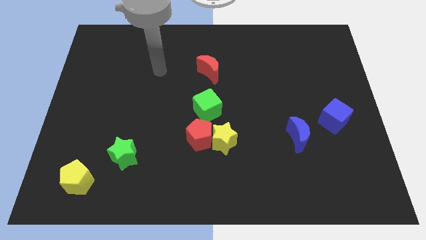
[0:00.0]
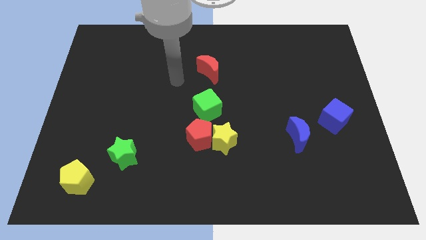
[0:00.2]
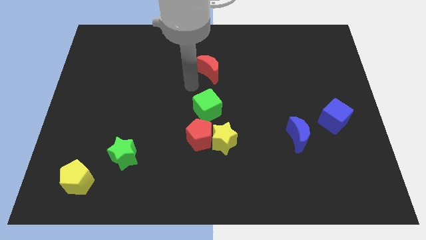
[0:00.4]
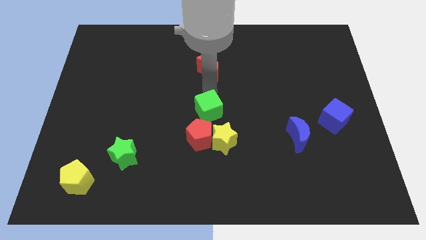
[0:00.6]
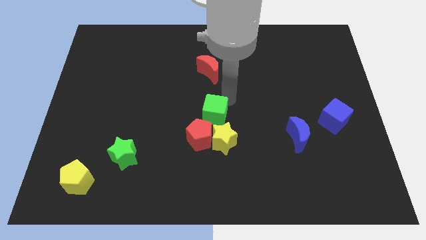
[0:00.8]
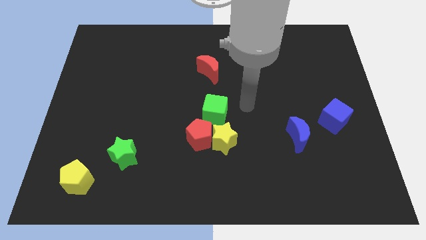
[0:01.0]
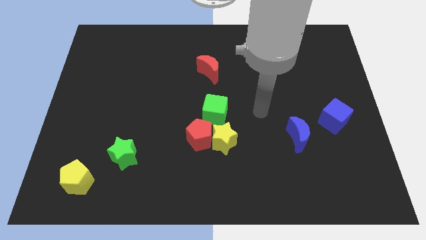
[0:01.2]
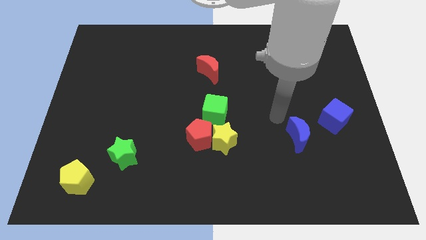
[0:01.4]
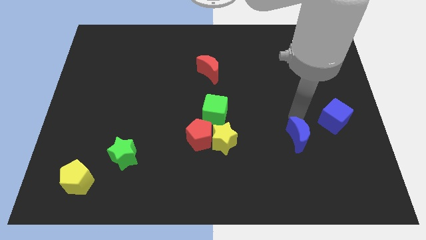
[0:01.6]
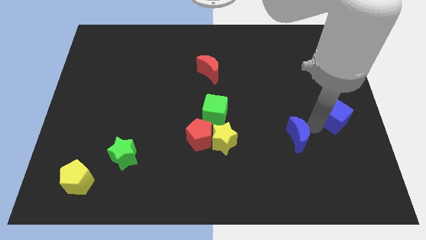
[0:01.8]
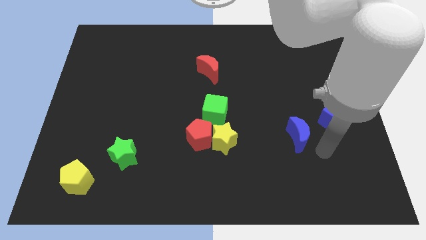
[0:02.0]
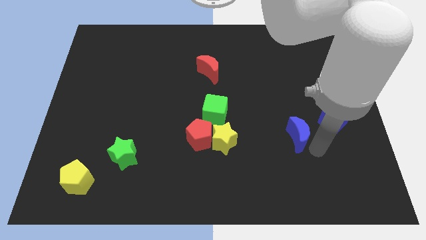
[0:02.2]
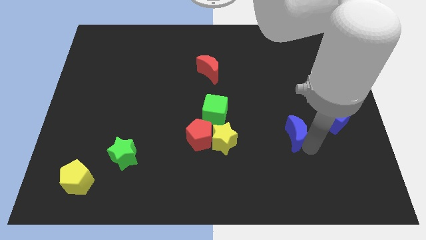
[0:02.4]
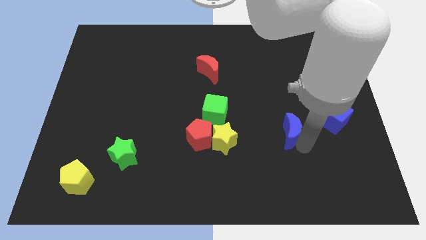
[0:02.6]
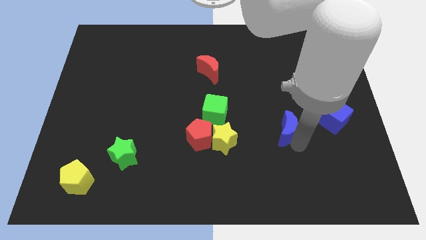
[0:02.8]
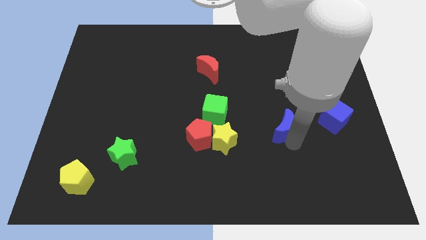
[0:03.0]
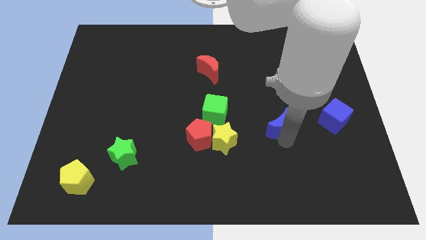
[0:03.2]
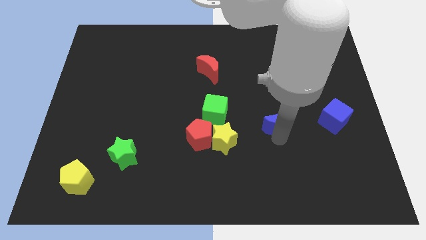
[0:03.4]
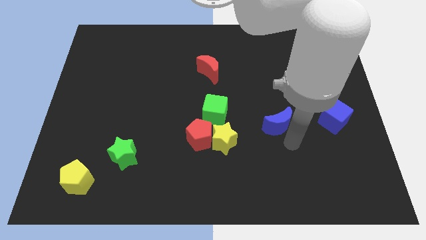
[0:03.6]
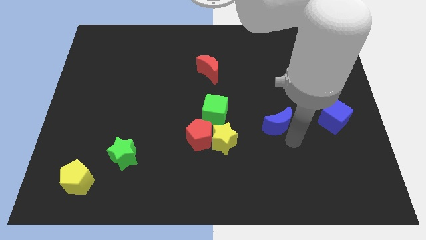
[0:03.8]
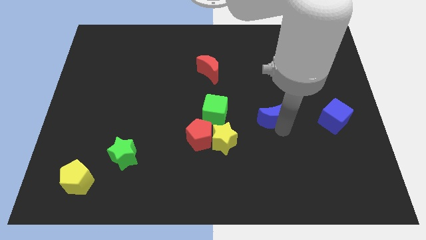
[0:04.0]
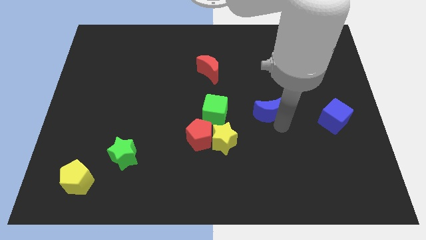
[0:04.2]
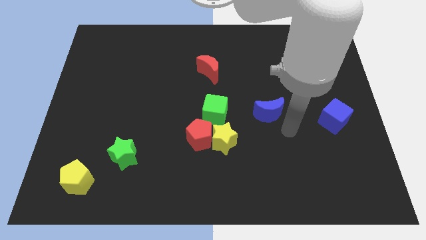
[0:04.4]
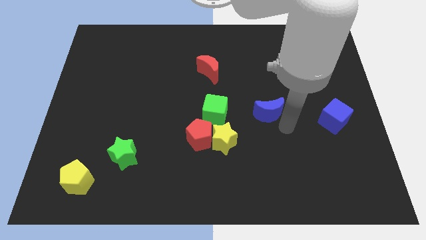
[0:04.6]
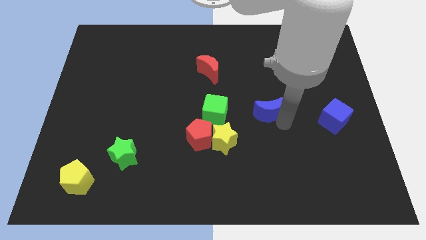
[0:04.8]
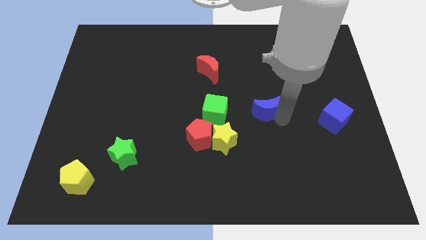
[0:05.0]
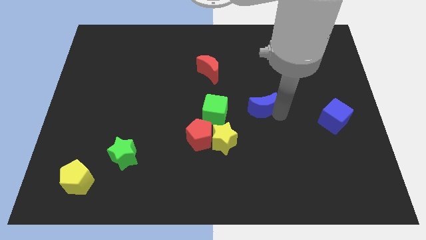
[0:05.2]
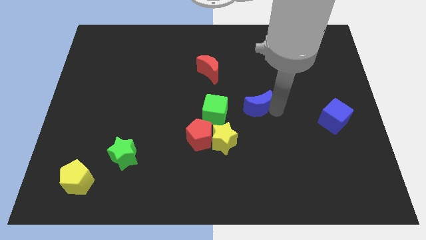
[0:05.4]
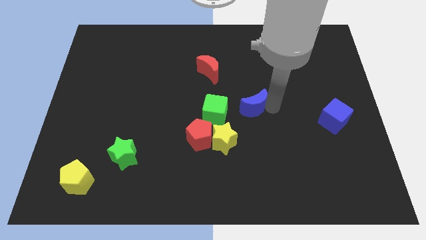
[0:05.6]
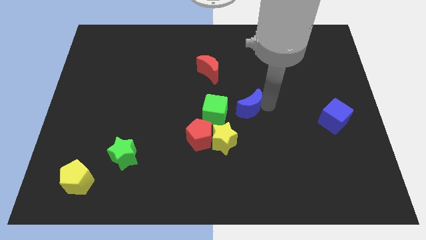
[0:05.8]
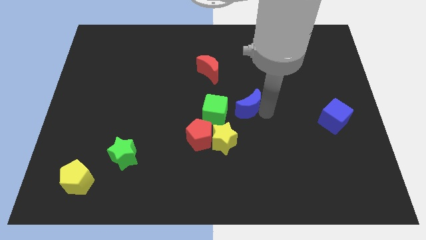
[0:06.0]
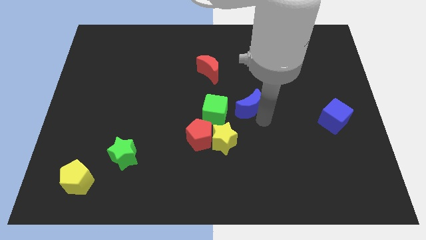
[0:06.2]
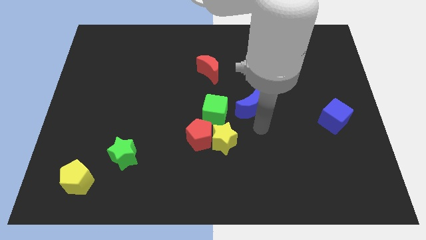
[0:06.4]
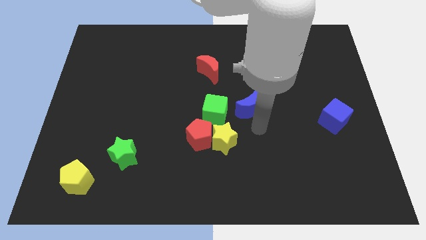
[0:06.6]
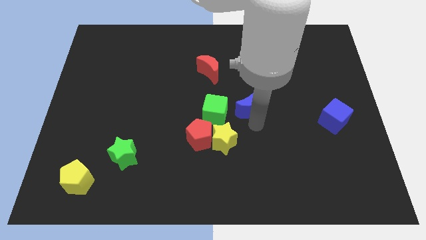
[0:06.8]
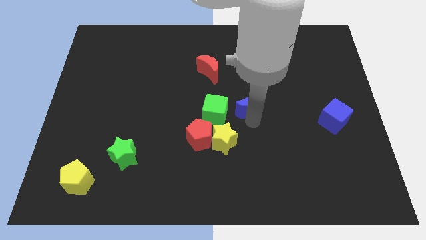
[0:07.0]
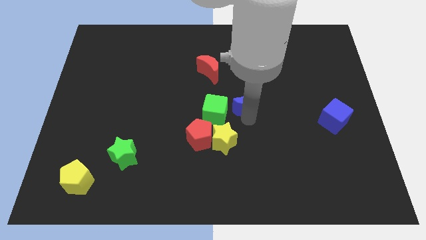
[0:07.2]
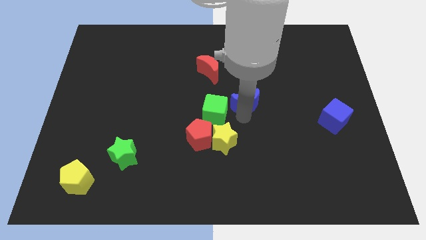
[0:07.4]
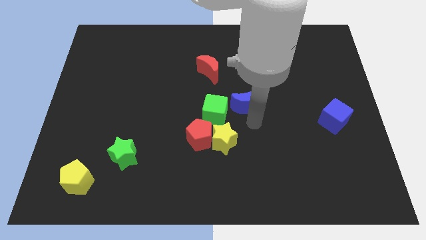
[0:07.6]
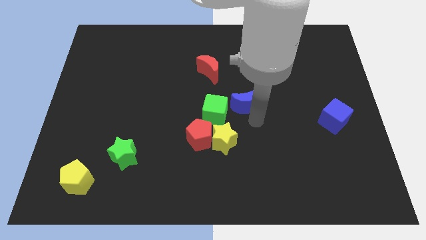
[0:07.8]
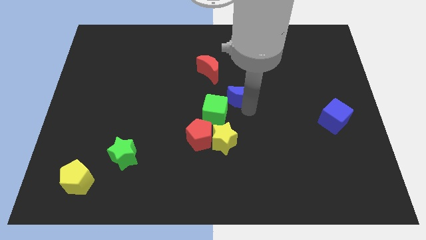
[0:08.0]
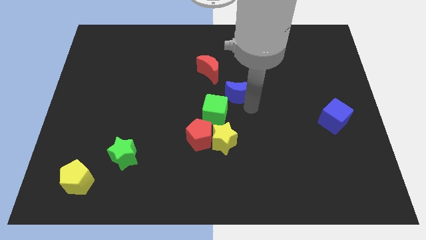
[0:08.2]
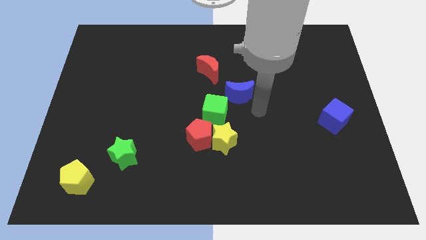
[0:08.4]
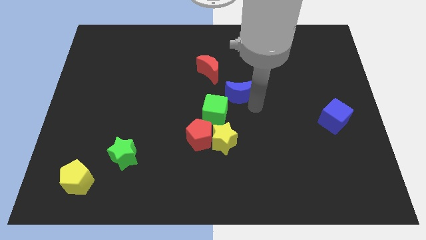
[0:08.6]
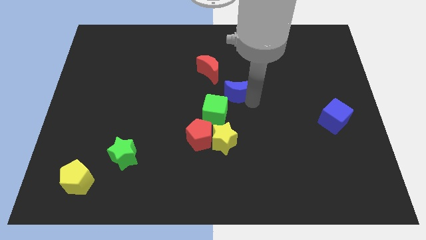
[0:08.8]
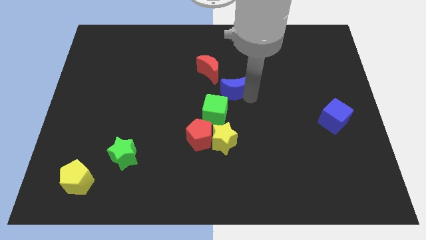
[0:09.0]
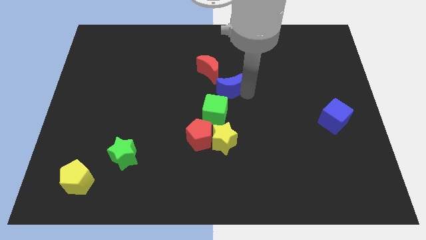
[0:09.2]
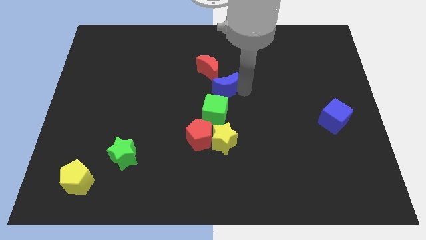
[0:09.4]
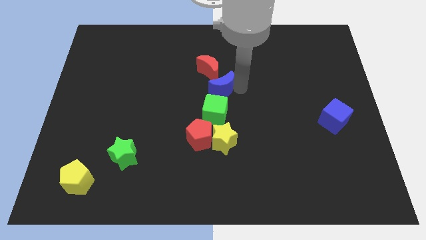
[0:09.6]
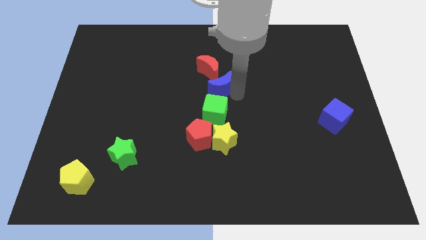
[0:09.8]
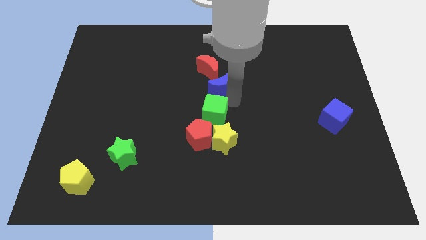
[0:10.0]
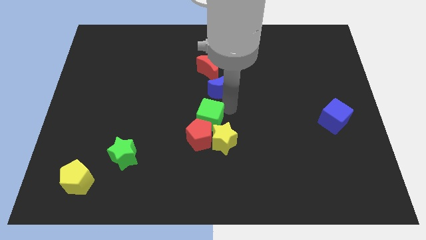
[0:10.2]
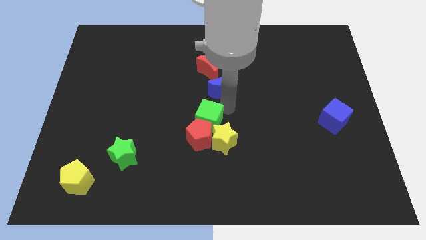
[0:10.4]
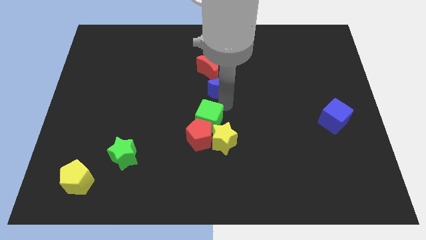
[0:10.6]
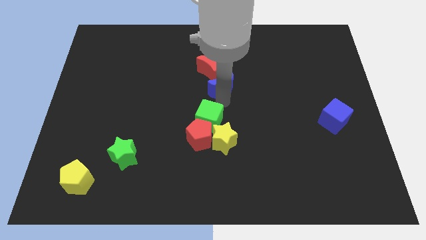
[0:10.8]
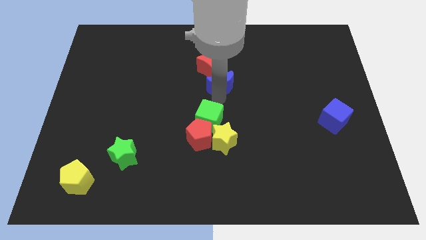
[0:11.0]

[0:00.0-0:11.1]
slide the blue moon towards the red moon

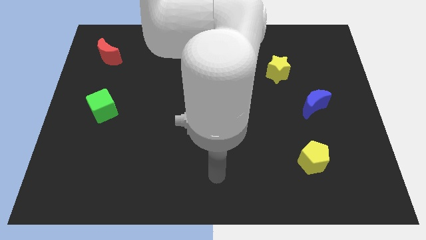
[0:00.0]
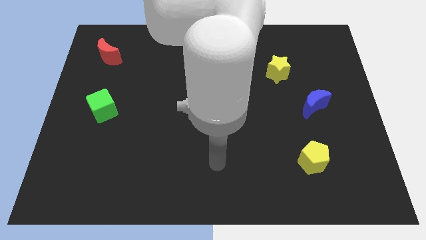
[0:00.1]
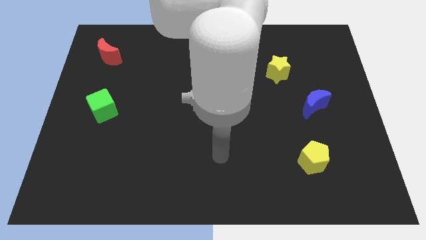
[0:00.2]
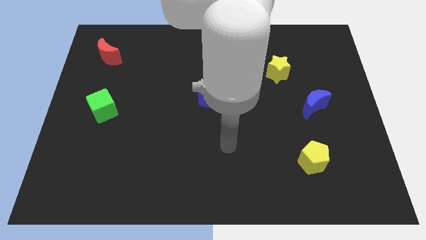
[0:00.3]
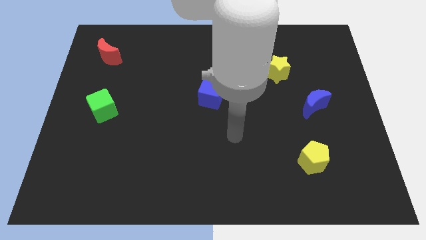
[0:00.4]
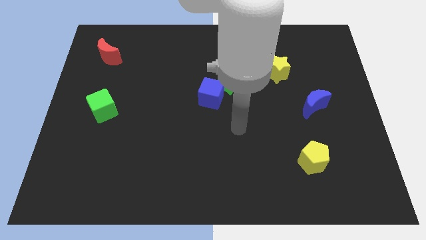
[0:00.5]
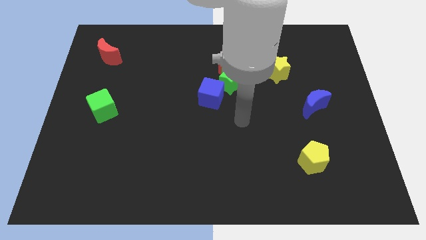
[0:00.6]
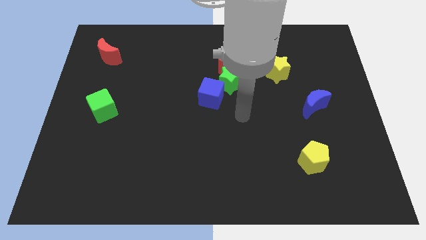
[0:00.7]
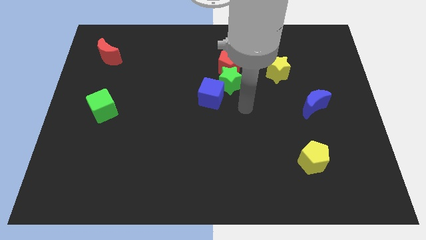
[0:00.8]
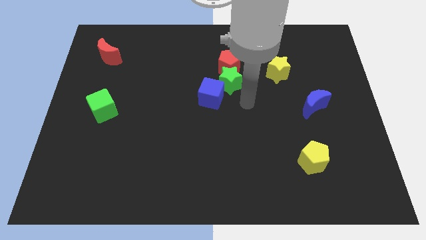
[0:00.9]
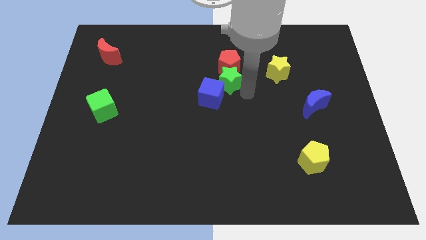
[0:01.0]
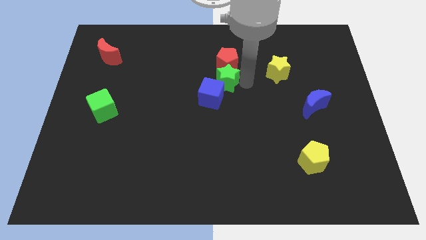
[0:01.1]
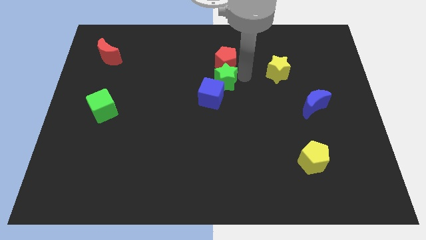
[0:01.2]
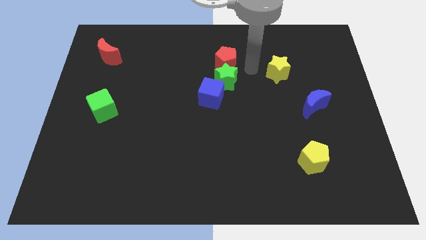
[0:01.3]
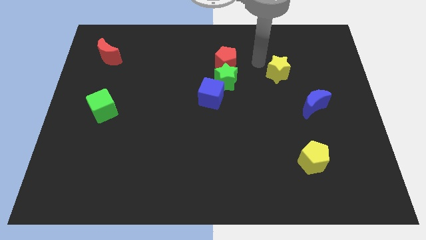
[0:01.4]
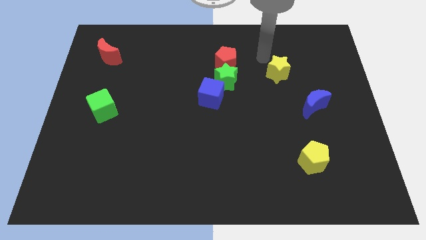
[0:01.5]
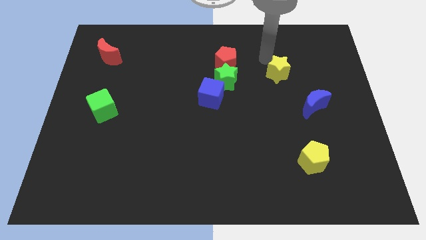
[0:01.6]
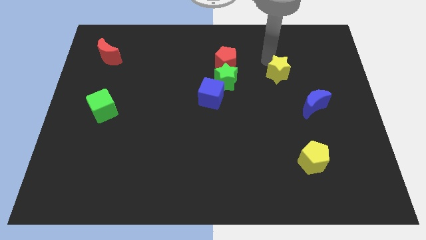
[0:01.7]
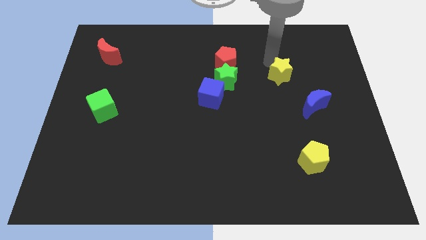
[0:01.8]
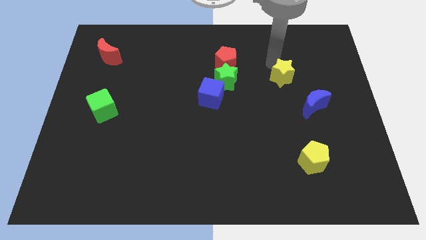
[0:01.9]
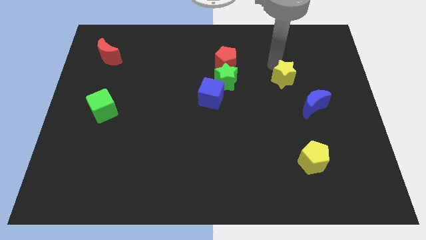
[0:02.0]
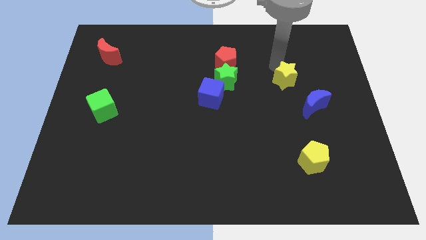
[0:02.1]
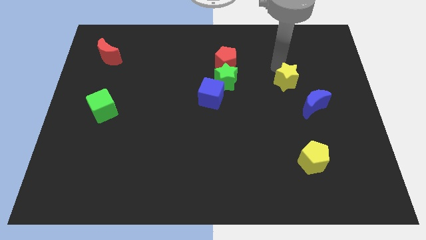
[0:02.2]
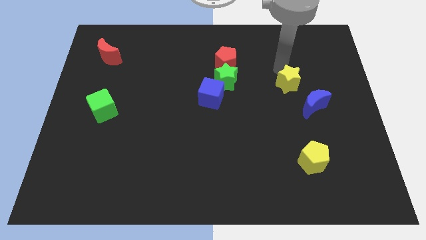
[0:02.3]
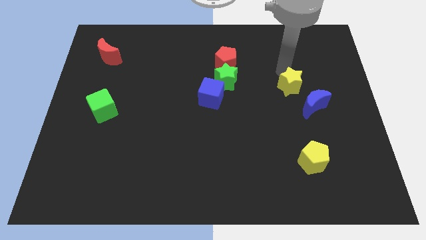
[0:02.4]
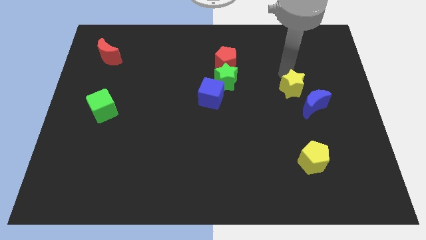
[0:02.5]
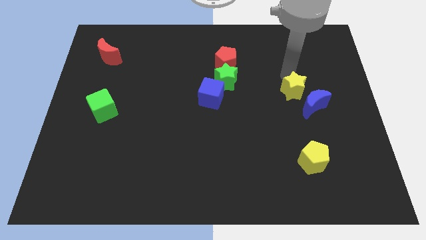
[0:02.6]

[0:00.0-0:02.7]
push the yellow star next to the blue moon
